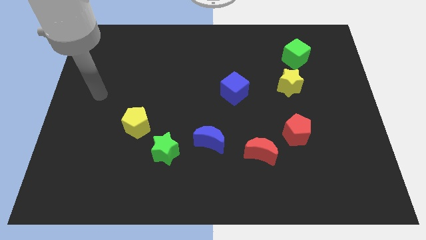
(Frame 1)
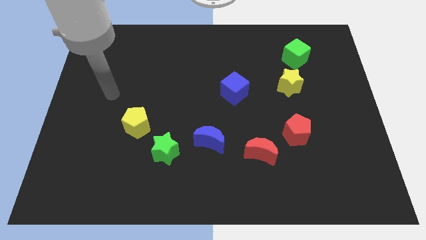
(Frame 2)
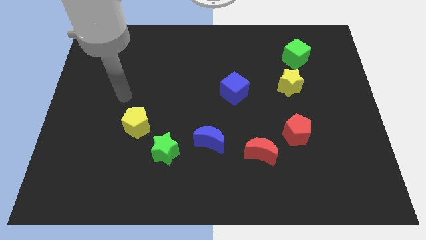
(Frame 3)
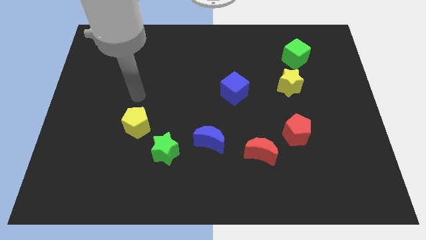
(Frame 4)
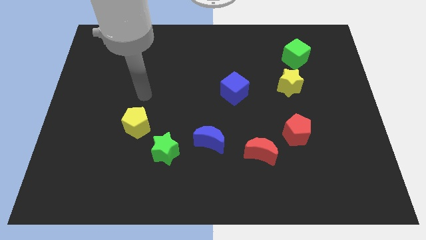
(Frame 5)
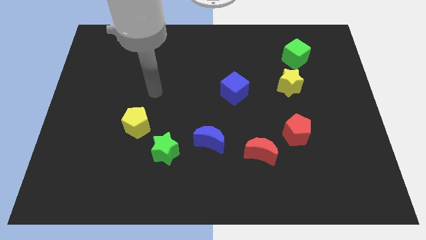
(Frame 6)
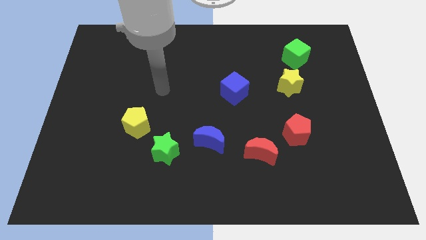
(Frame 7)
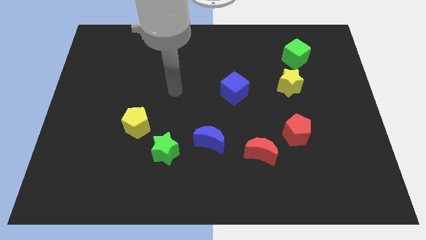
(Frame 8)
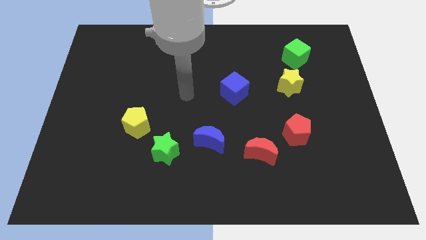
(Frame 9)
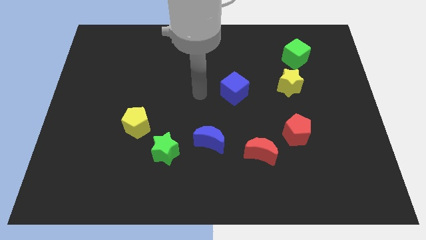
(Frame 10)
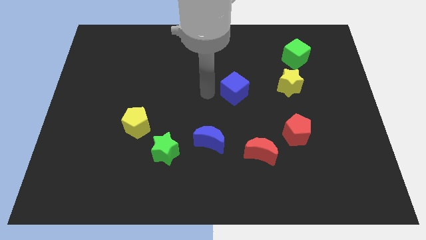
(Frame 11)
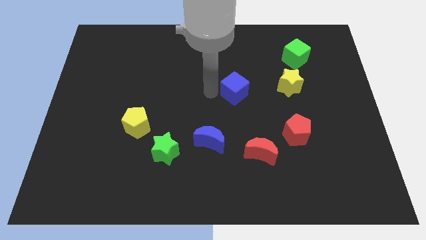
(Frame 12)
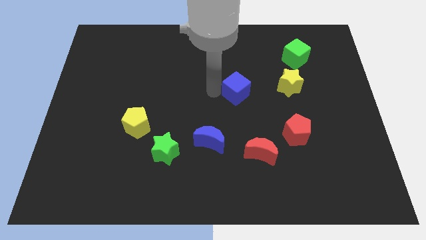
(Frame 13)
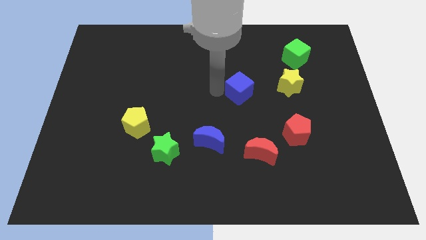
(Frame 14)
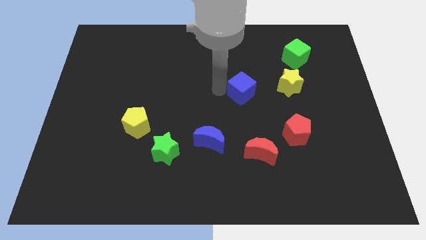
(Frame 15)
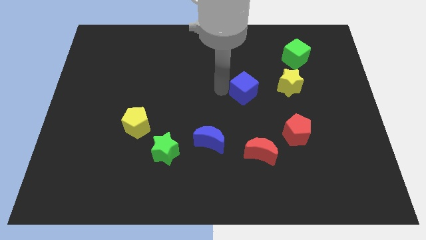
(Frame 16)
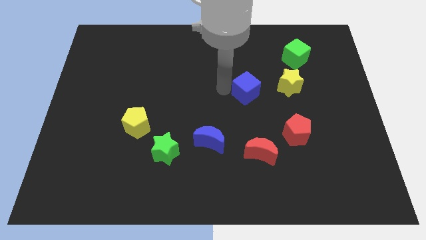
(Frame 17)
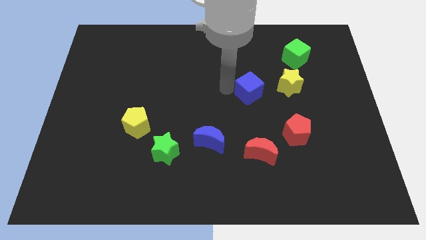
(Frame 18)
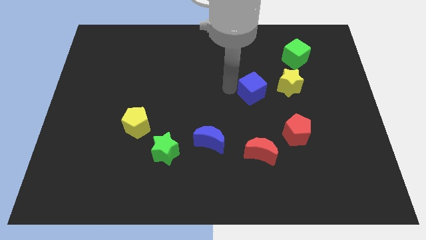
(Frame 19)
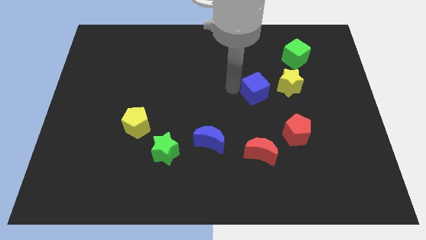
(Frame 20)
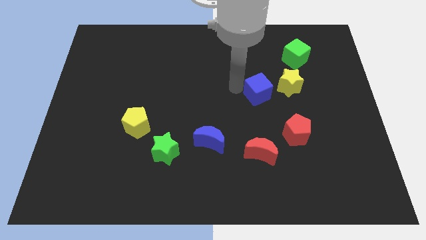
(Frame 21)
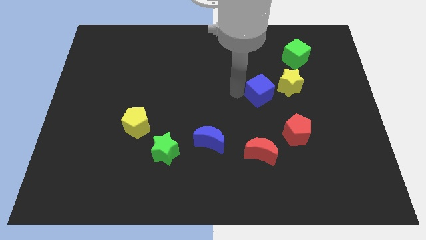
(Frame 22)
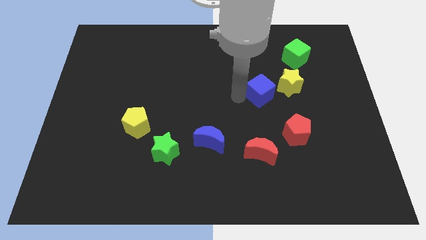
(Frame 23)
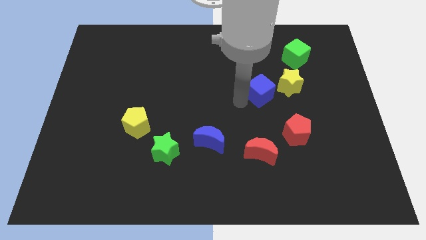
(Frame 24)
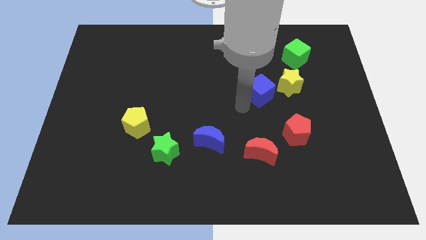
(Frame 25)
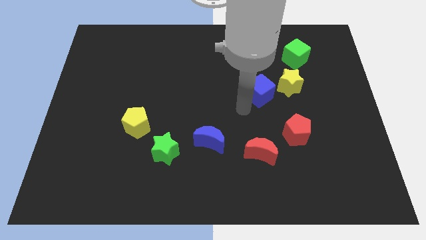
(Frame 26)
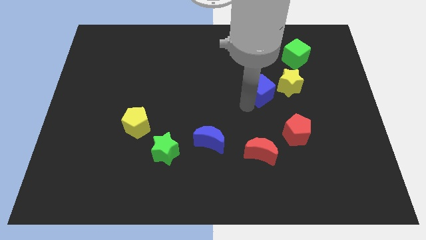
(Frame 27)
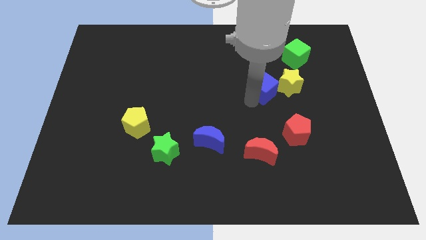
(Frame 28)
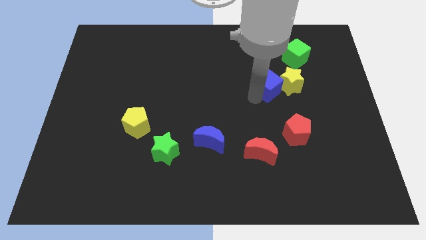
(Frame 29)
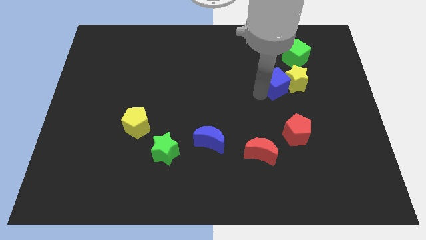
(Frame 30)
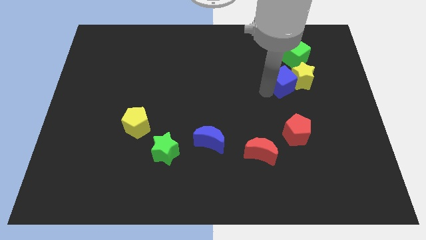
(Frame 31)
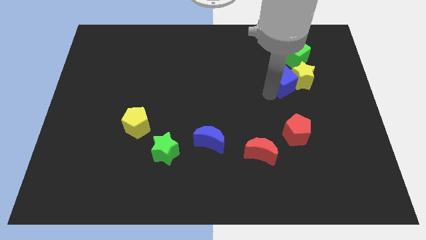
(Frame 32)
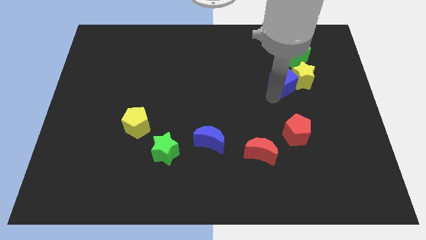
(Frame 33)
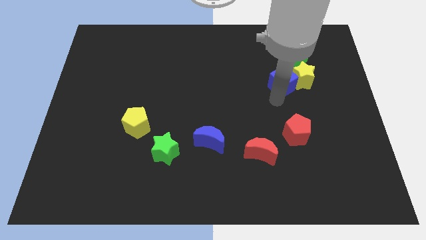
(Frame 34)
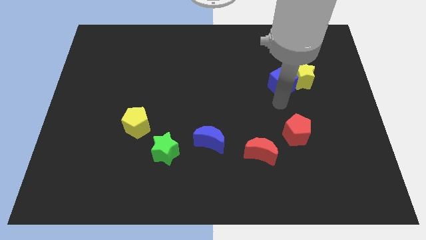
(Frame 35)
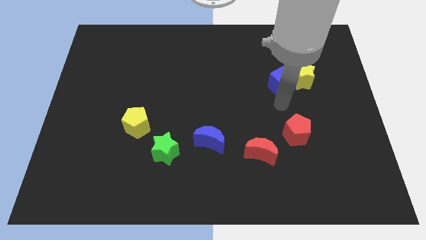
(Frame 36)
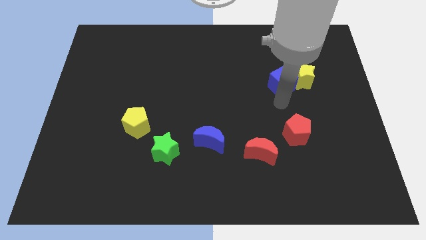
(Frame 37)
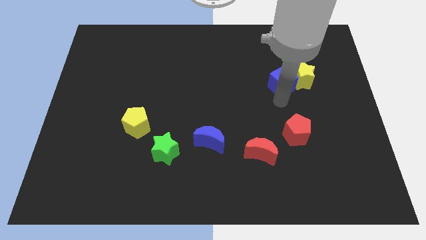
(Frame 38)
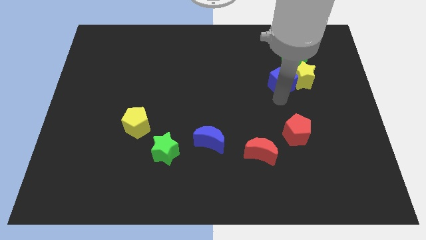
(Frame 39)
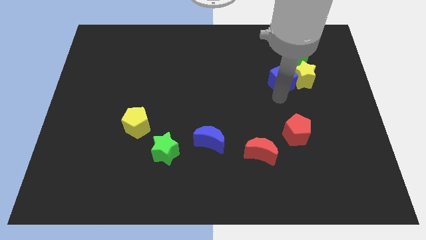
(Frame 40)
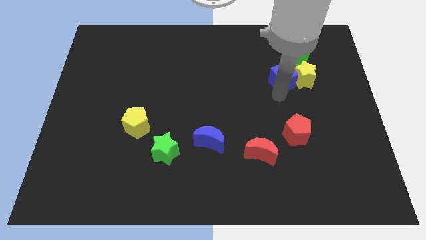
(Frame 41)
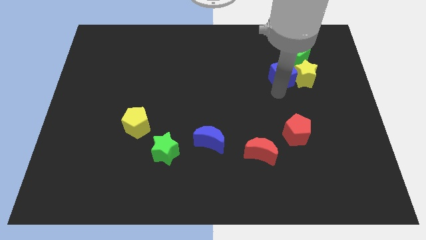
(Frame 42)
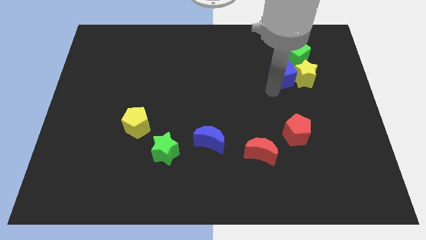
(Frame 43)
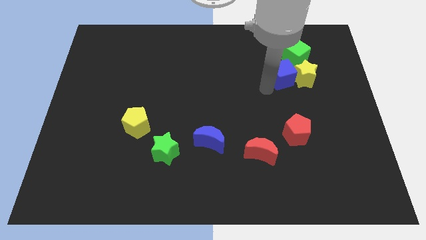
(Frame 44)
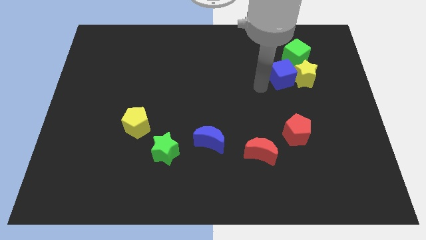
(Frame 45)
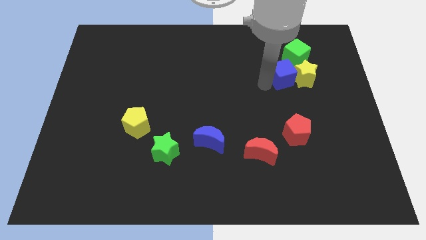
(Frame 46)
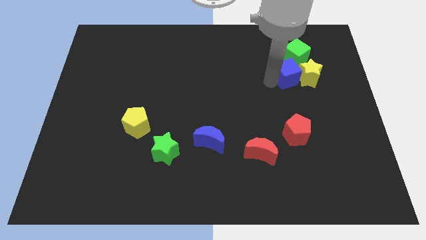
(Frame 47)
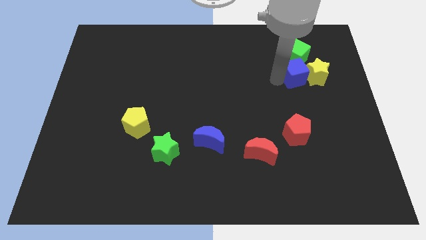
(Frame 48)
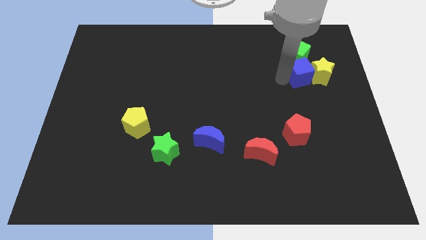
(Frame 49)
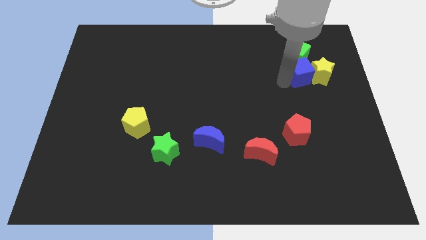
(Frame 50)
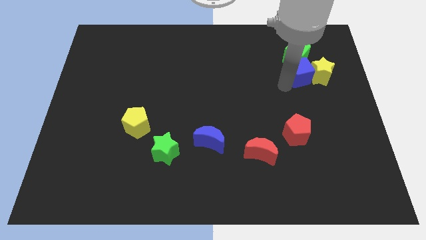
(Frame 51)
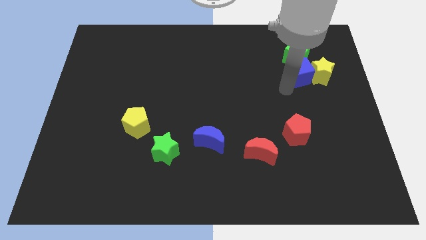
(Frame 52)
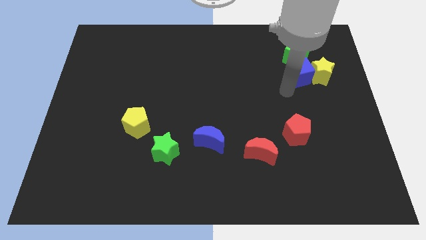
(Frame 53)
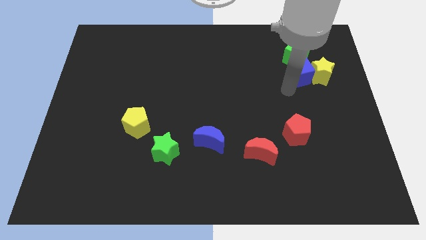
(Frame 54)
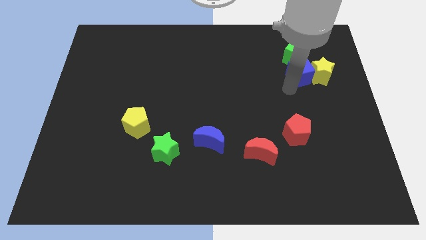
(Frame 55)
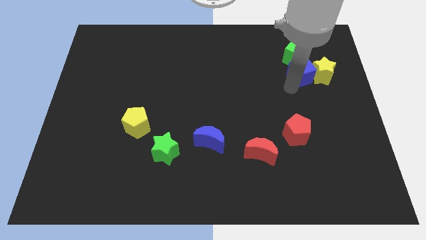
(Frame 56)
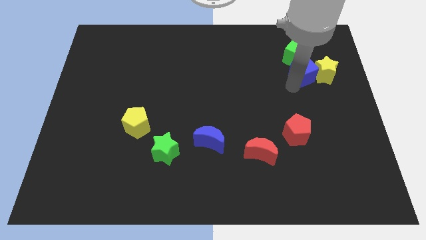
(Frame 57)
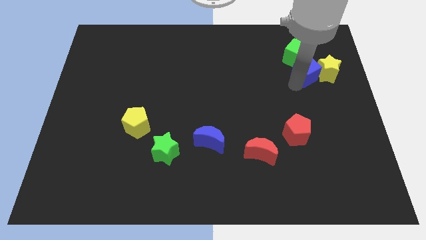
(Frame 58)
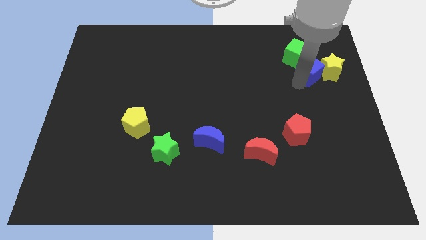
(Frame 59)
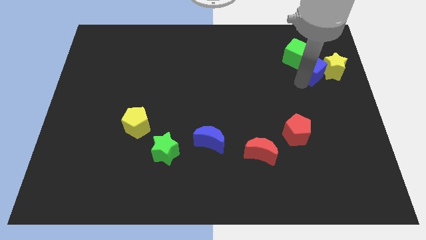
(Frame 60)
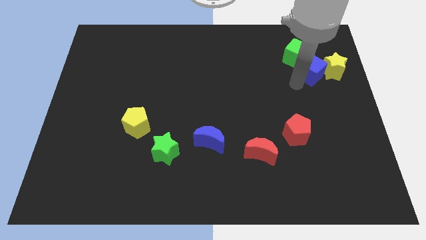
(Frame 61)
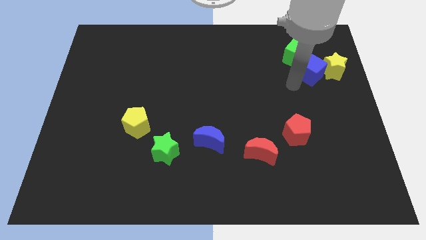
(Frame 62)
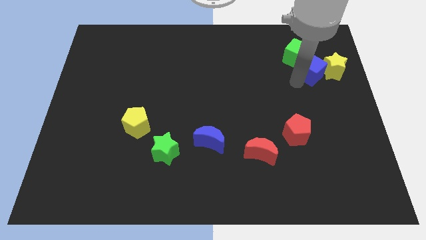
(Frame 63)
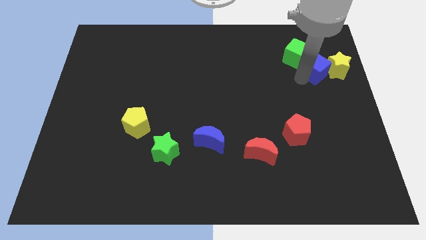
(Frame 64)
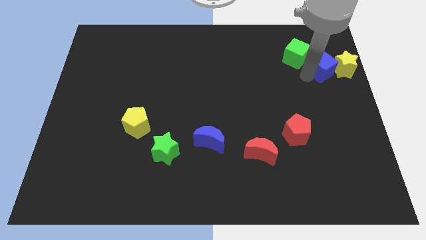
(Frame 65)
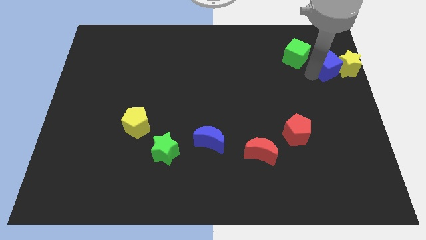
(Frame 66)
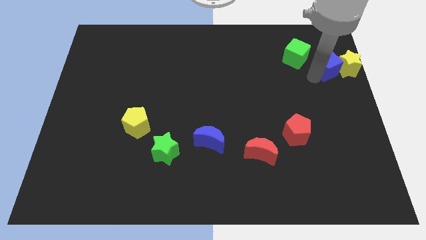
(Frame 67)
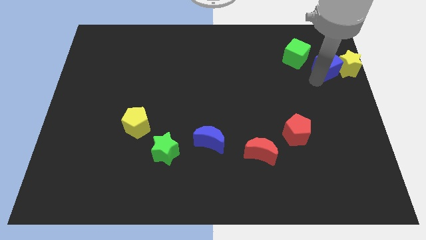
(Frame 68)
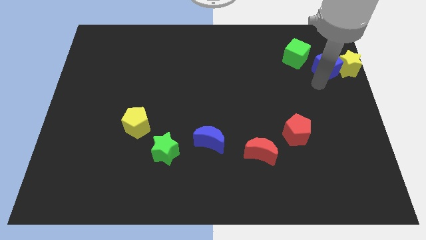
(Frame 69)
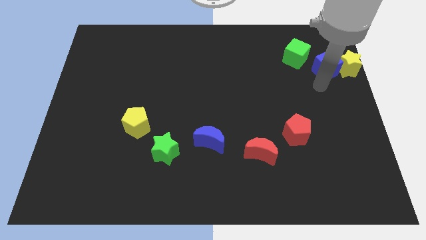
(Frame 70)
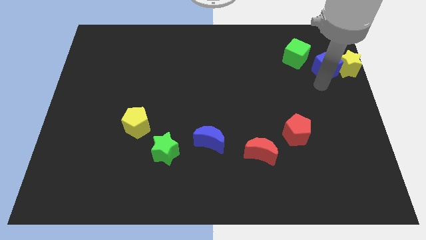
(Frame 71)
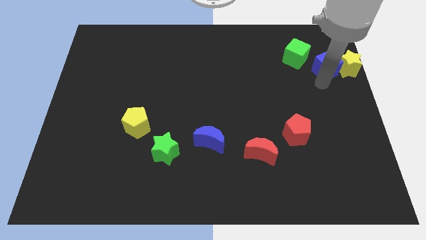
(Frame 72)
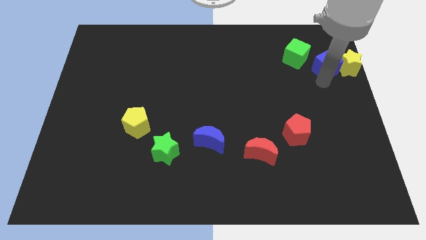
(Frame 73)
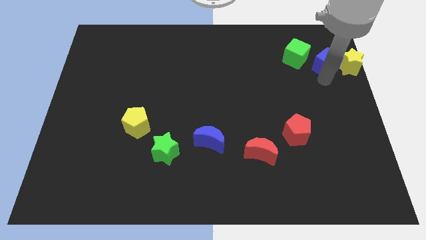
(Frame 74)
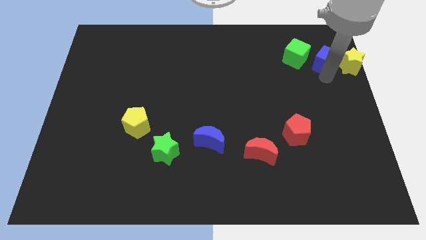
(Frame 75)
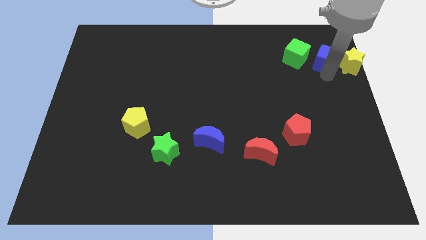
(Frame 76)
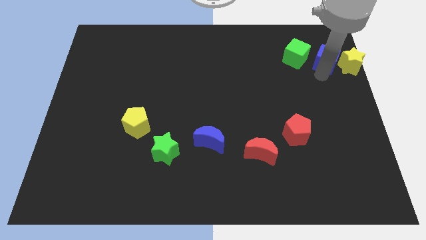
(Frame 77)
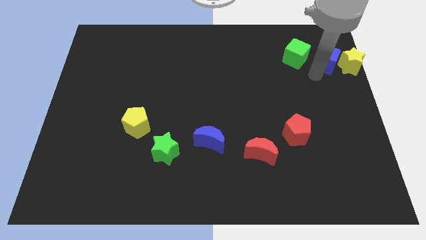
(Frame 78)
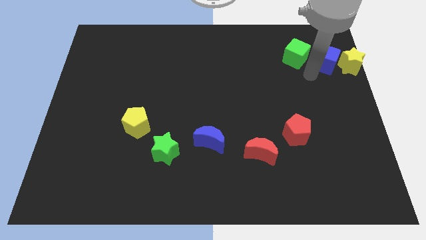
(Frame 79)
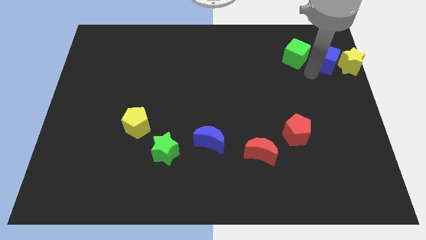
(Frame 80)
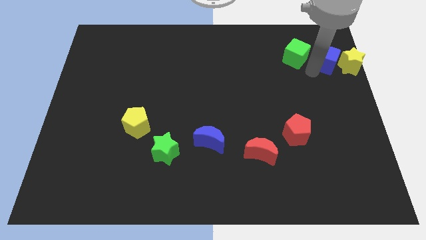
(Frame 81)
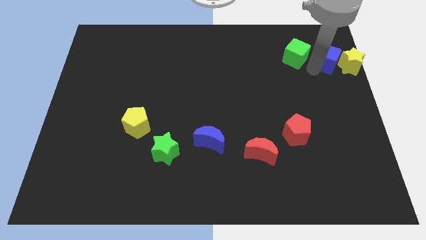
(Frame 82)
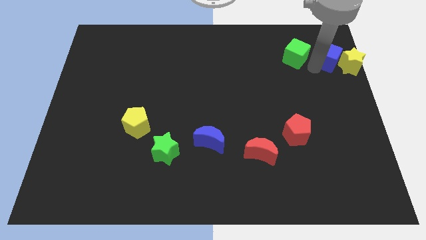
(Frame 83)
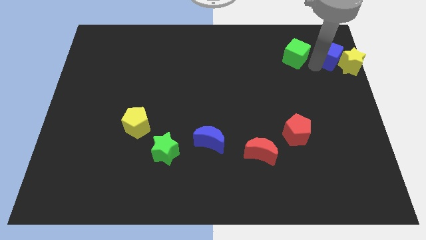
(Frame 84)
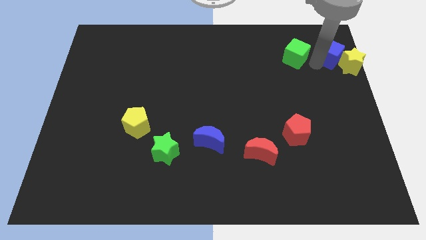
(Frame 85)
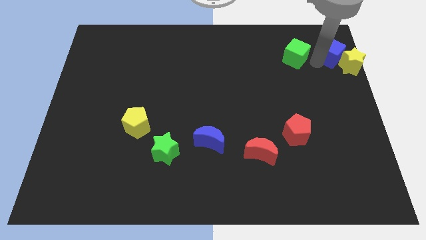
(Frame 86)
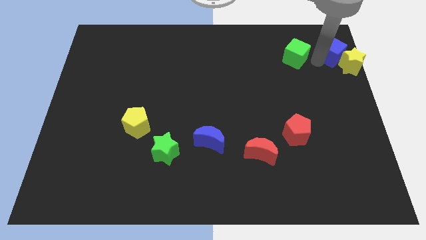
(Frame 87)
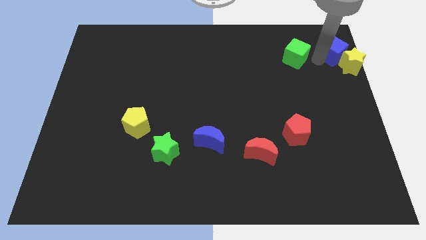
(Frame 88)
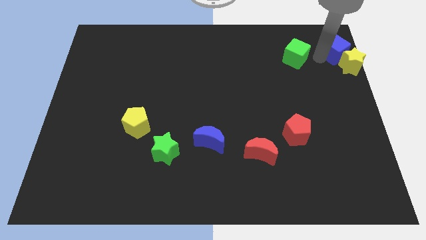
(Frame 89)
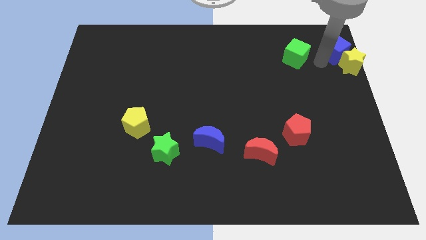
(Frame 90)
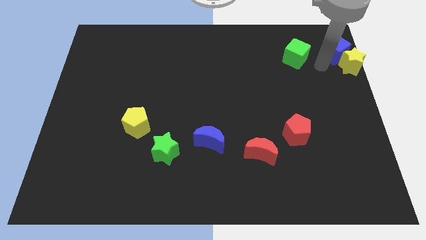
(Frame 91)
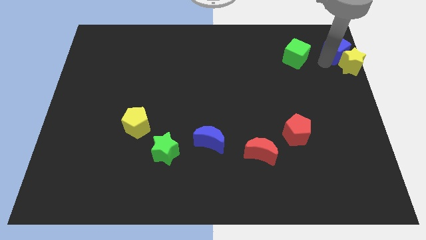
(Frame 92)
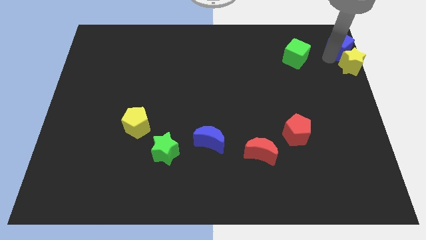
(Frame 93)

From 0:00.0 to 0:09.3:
push the blue cube to the top right of the board
